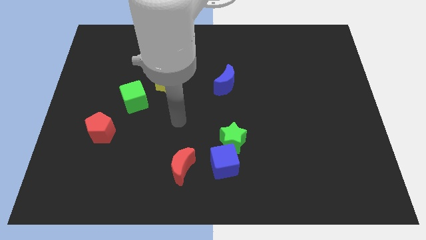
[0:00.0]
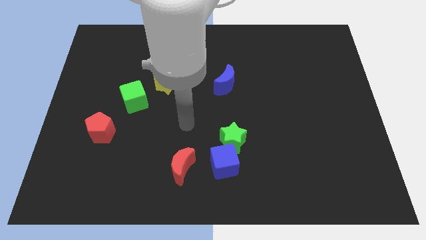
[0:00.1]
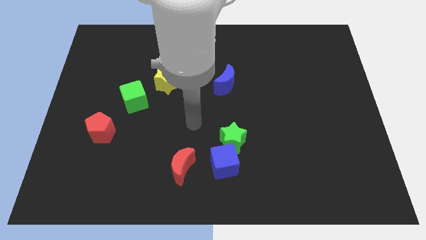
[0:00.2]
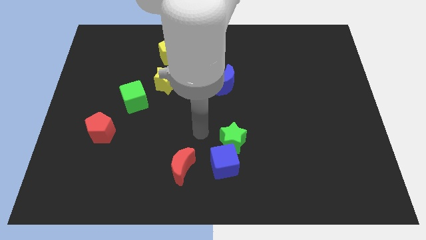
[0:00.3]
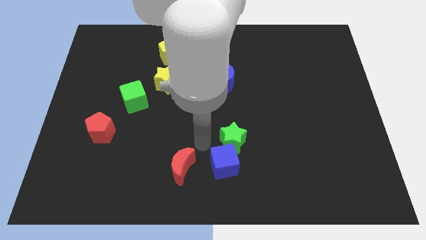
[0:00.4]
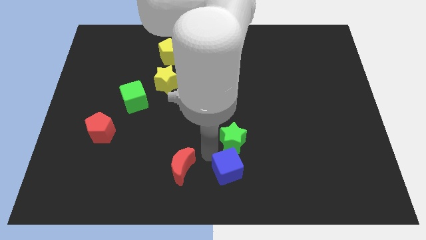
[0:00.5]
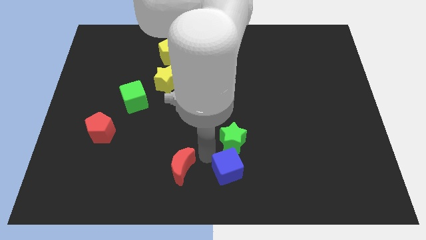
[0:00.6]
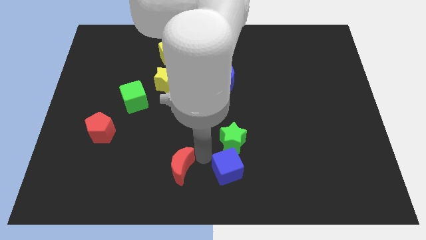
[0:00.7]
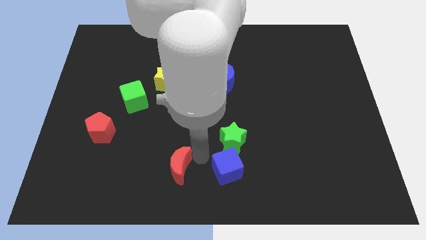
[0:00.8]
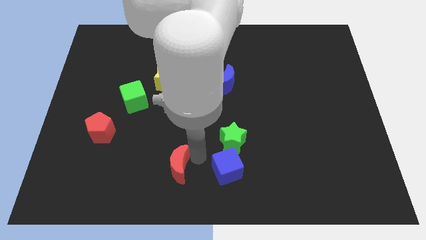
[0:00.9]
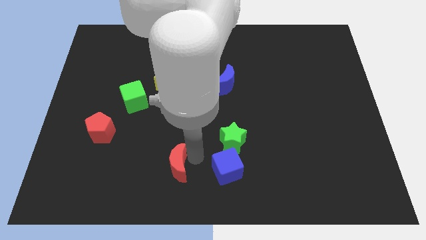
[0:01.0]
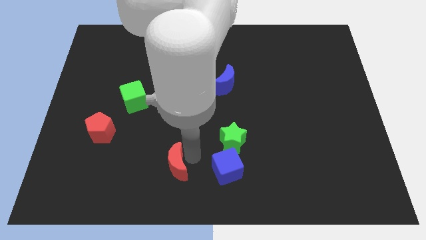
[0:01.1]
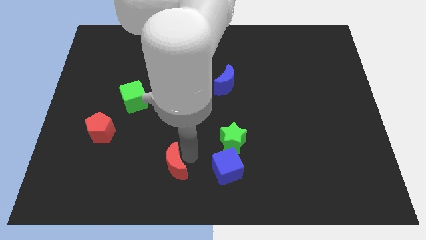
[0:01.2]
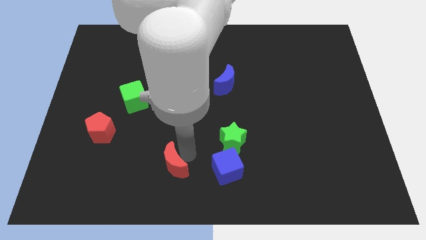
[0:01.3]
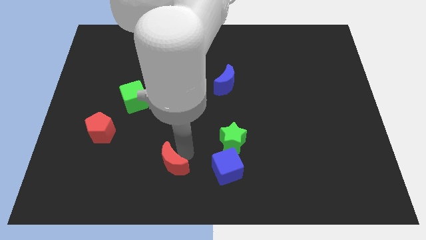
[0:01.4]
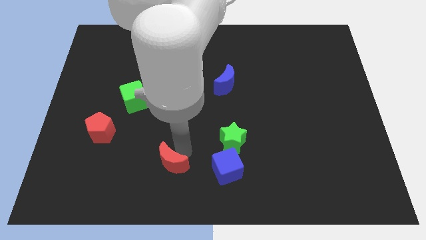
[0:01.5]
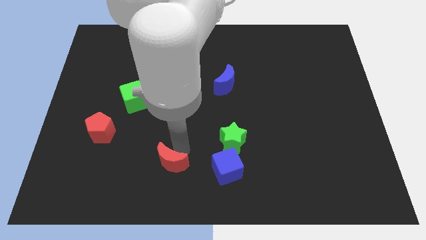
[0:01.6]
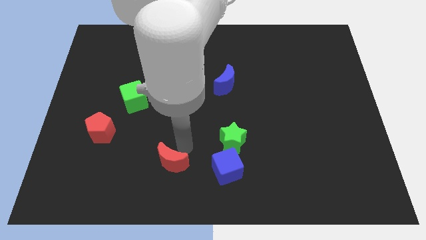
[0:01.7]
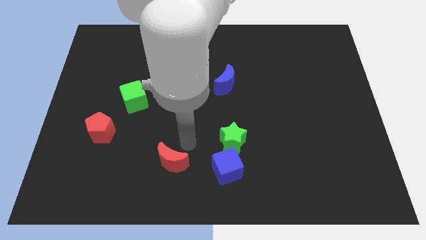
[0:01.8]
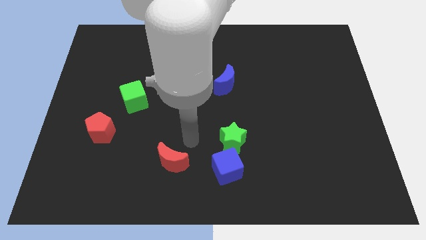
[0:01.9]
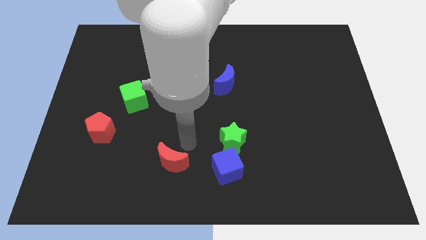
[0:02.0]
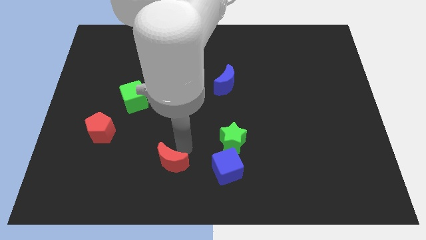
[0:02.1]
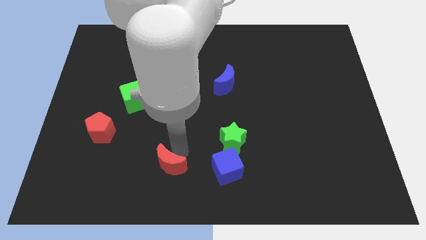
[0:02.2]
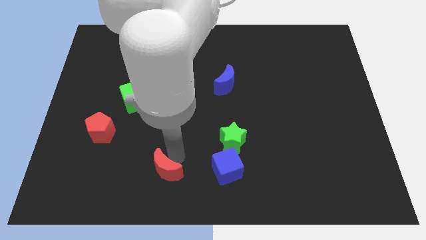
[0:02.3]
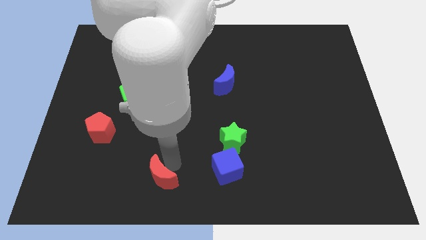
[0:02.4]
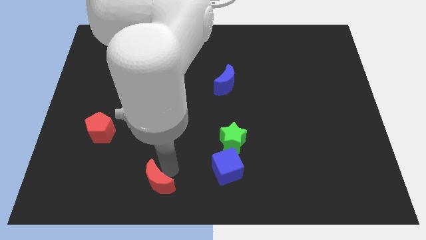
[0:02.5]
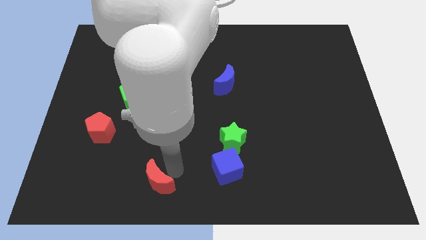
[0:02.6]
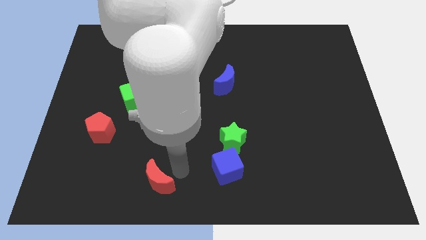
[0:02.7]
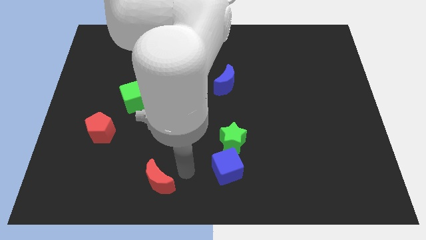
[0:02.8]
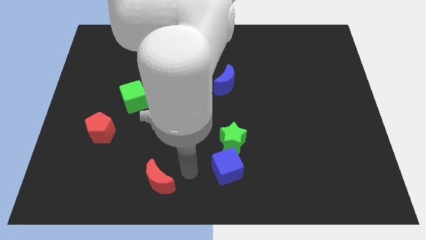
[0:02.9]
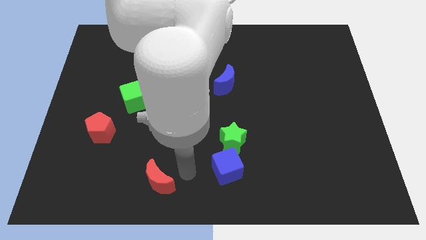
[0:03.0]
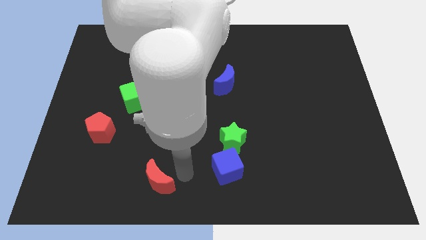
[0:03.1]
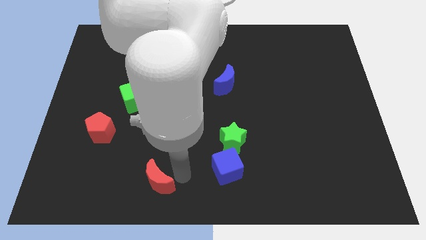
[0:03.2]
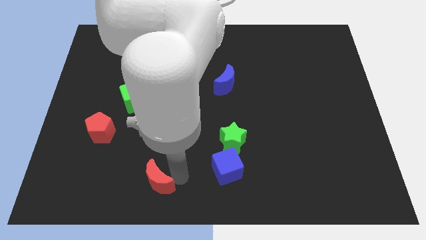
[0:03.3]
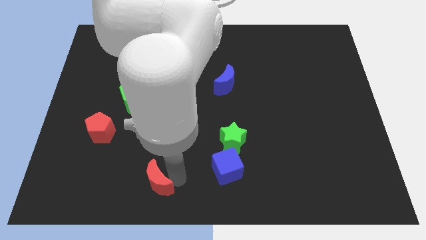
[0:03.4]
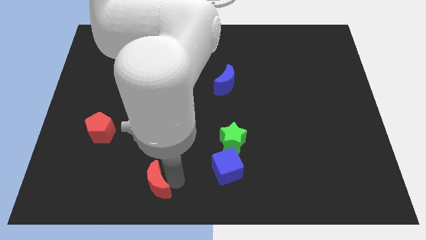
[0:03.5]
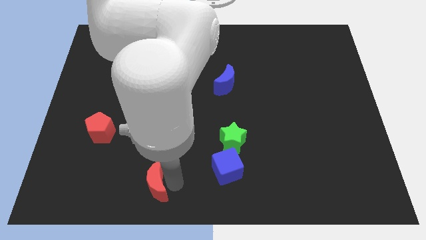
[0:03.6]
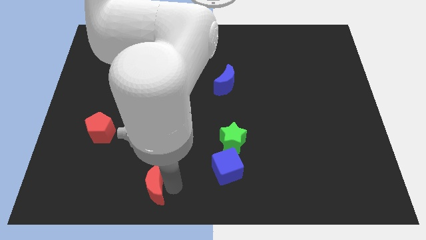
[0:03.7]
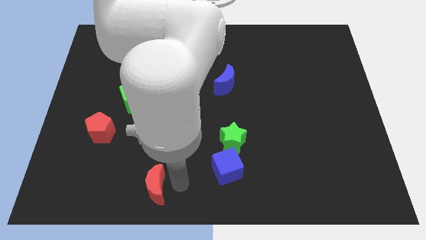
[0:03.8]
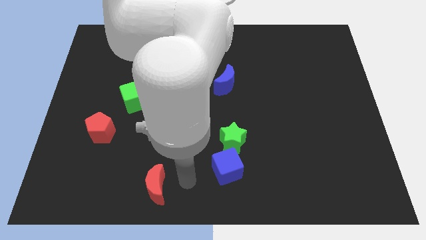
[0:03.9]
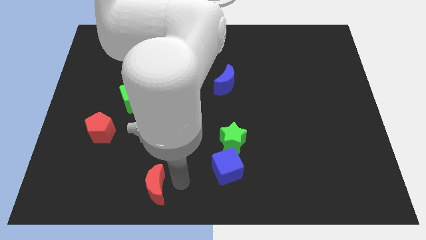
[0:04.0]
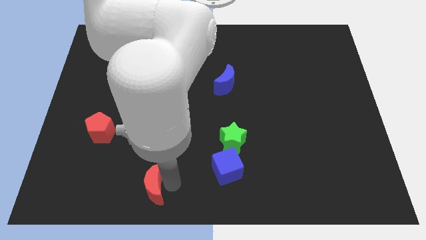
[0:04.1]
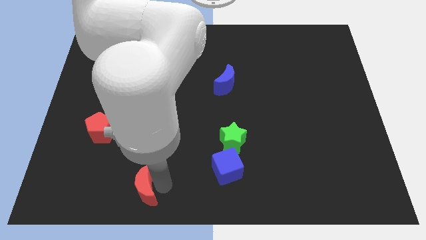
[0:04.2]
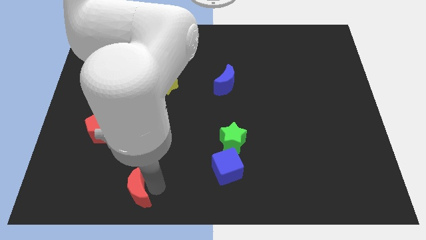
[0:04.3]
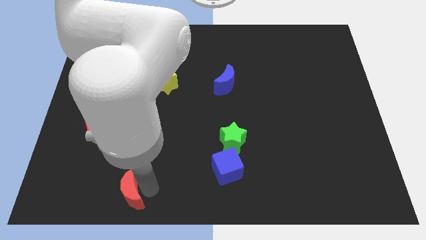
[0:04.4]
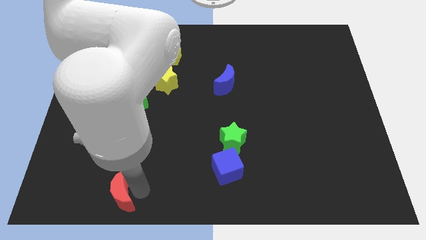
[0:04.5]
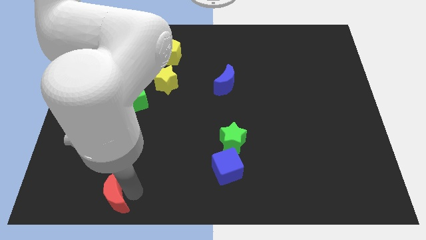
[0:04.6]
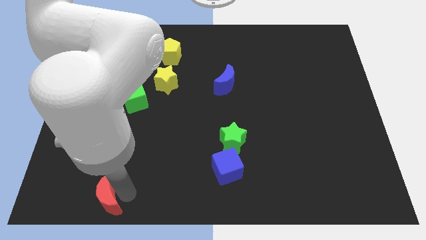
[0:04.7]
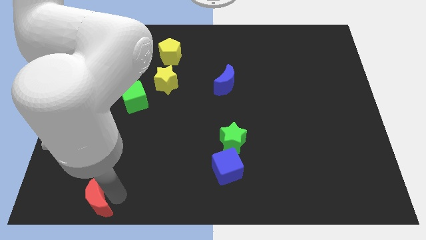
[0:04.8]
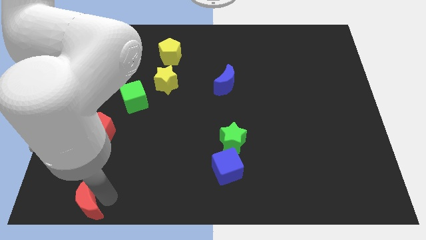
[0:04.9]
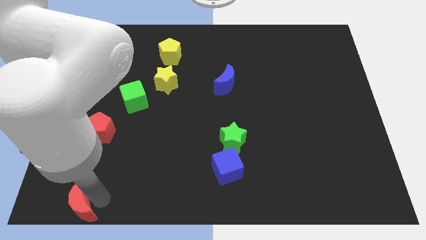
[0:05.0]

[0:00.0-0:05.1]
put the red moon to the lower left corner

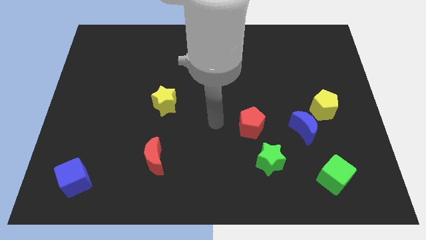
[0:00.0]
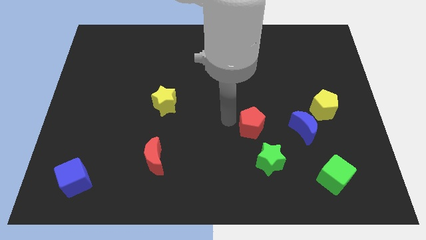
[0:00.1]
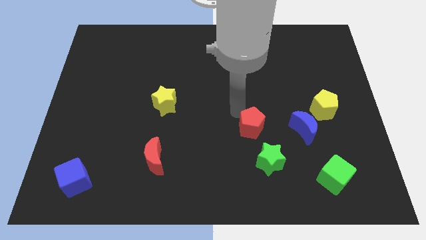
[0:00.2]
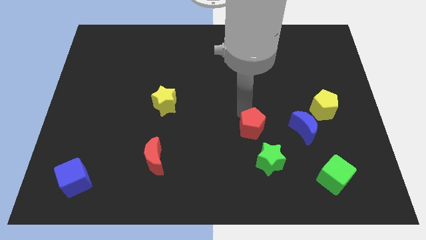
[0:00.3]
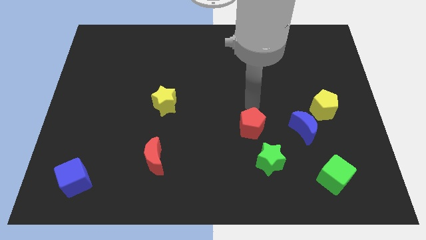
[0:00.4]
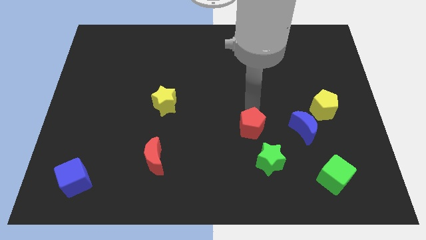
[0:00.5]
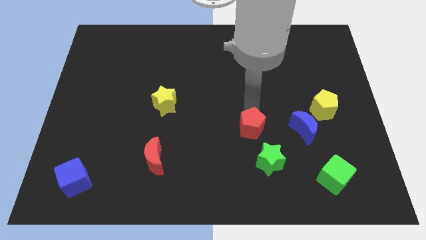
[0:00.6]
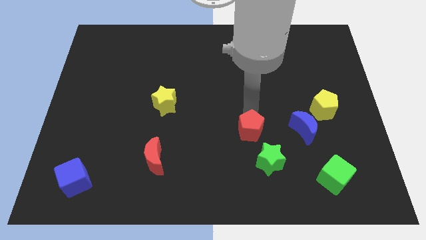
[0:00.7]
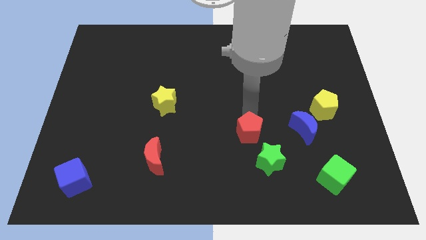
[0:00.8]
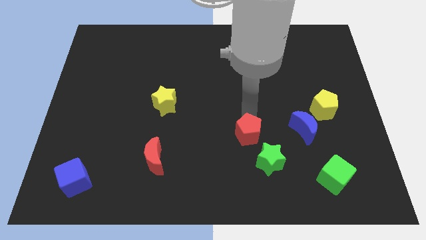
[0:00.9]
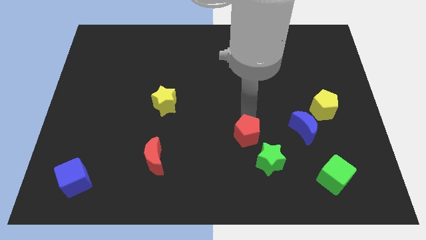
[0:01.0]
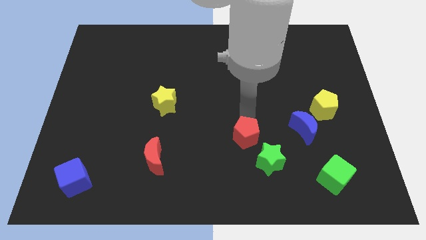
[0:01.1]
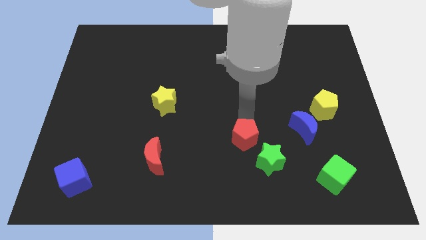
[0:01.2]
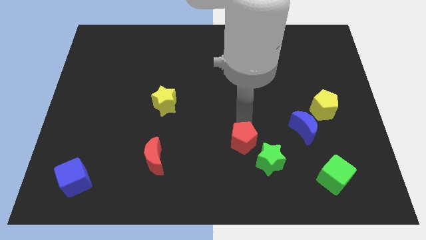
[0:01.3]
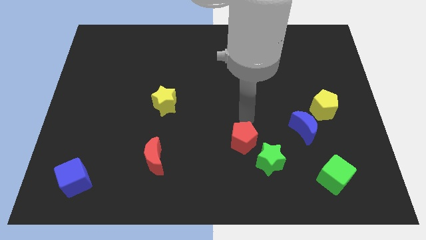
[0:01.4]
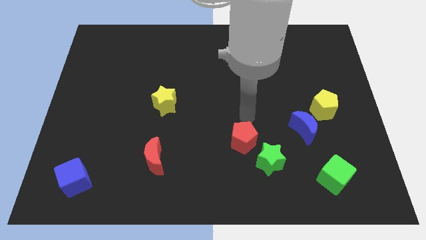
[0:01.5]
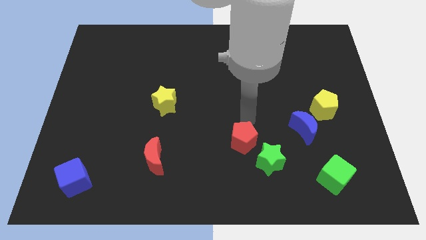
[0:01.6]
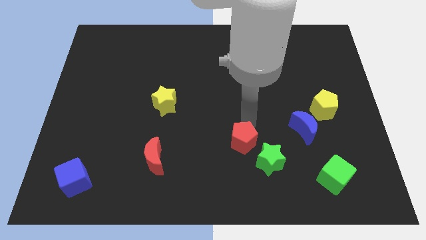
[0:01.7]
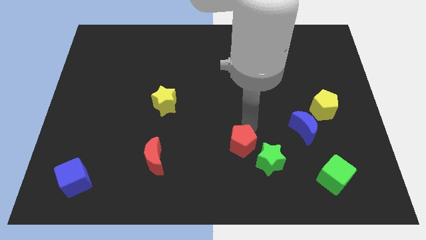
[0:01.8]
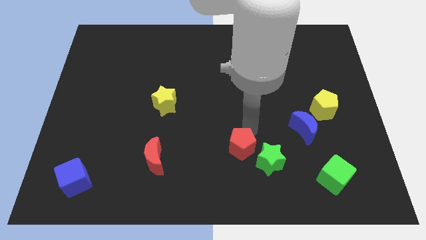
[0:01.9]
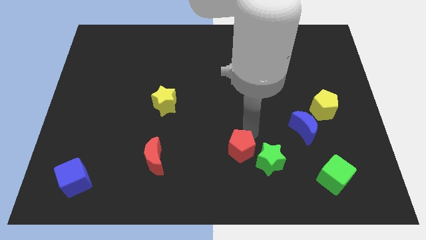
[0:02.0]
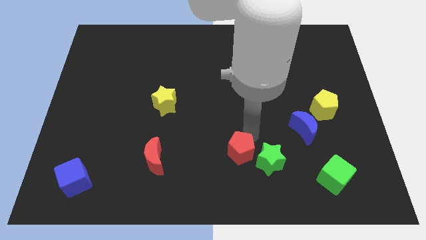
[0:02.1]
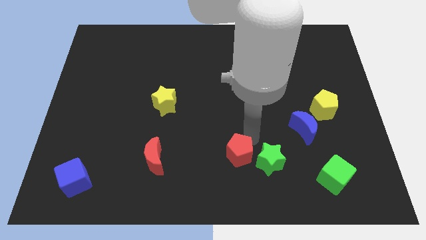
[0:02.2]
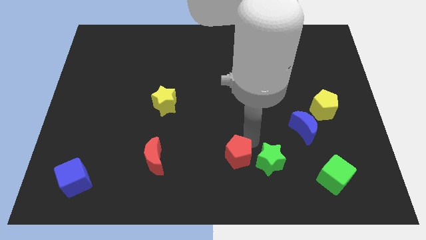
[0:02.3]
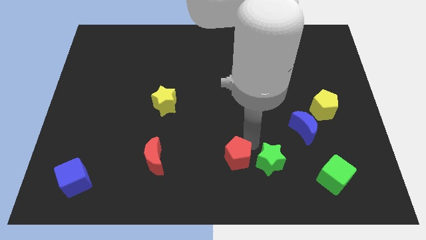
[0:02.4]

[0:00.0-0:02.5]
put the red pentagon to the bottom
